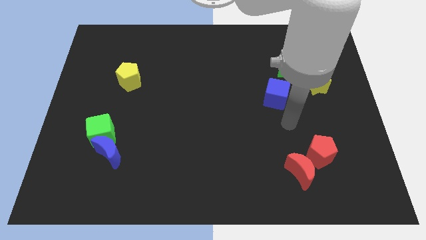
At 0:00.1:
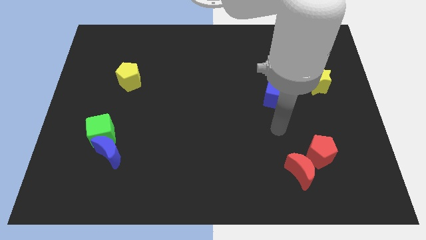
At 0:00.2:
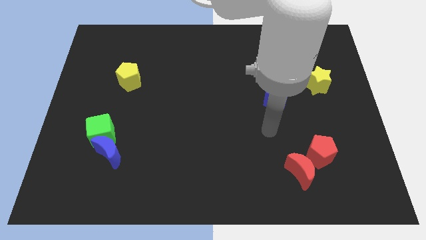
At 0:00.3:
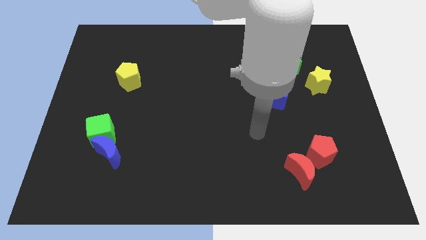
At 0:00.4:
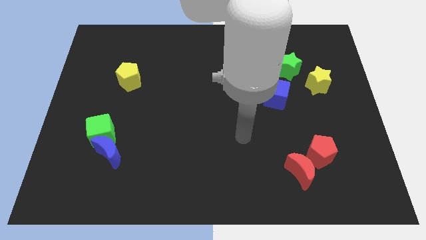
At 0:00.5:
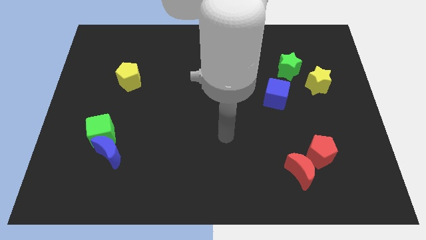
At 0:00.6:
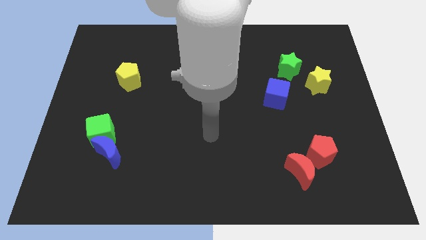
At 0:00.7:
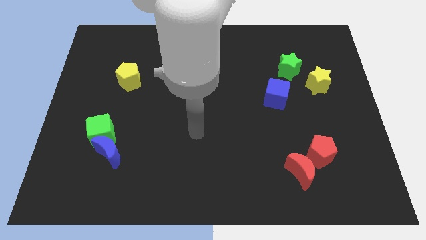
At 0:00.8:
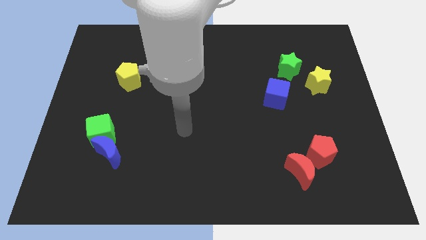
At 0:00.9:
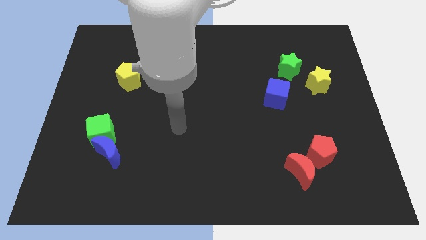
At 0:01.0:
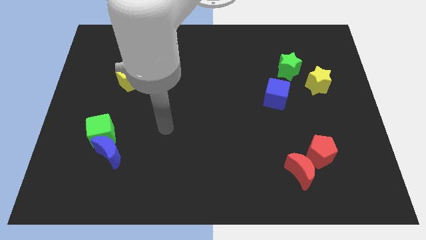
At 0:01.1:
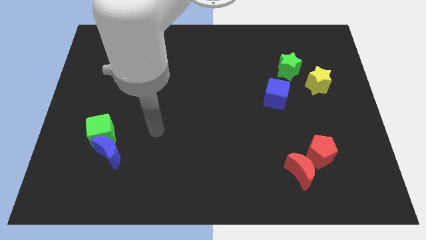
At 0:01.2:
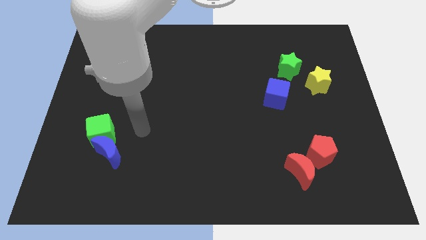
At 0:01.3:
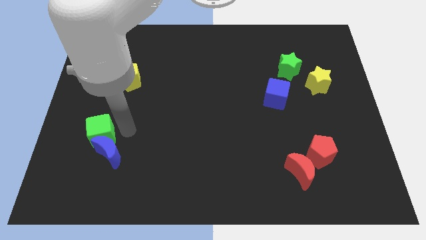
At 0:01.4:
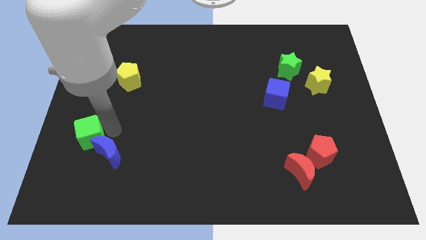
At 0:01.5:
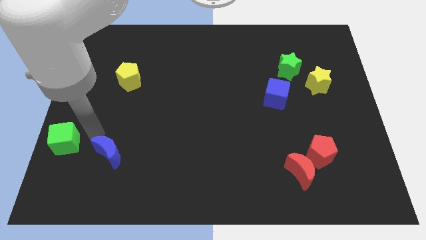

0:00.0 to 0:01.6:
pull the blue moon apart from the green cube

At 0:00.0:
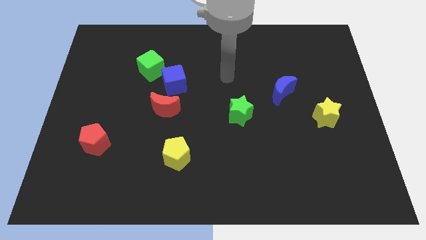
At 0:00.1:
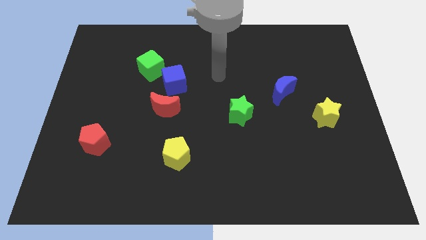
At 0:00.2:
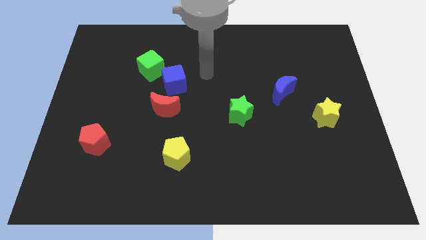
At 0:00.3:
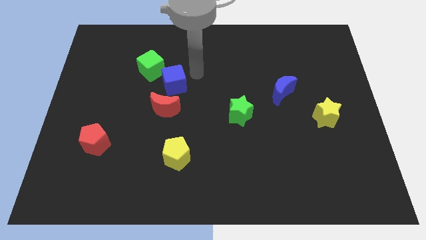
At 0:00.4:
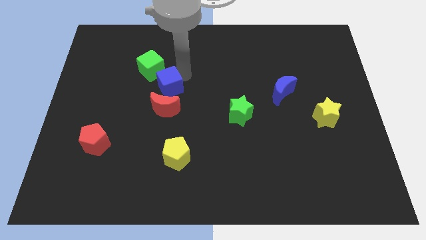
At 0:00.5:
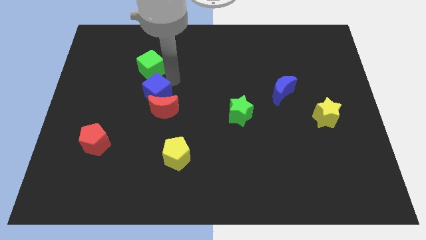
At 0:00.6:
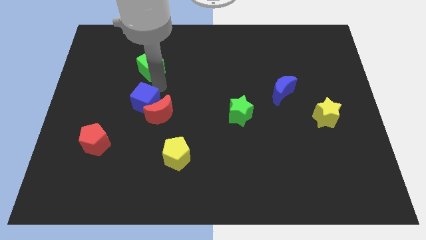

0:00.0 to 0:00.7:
pull the green cube apart from the blue cube

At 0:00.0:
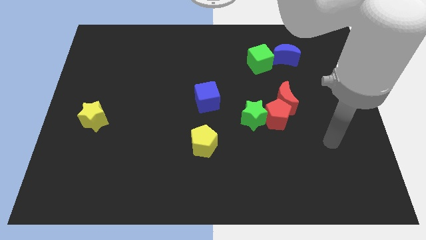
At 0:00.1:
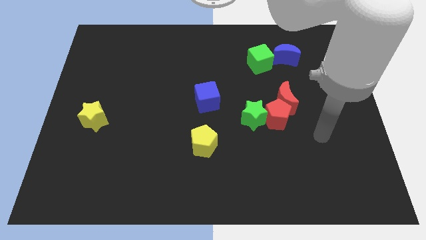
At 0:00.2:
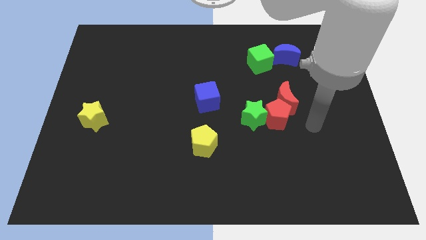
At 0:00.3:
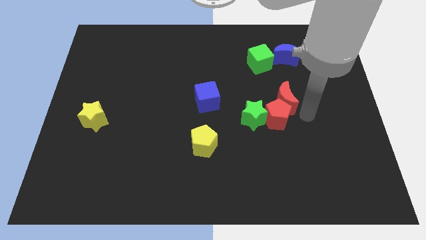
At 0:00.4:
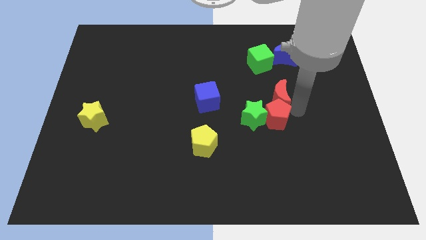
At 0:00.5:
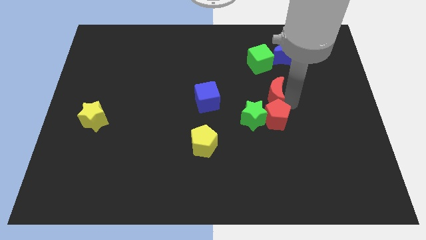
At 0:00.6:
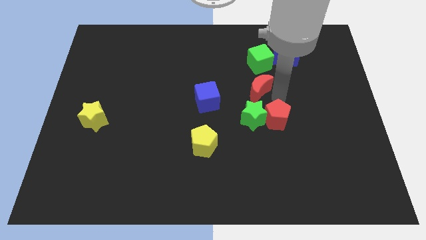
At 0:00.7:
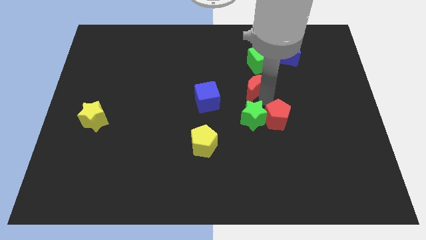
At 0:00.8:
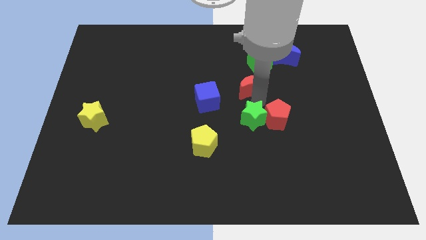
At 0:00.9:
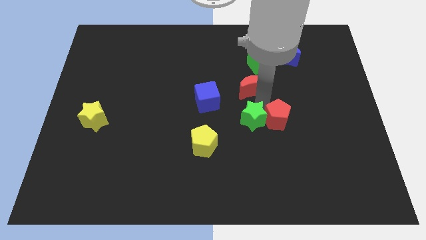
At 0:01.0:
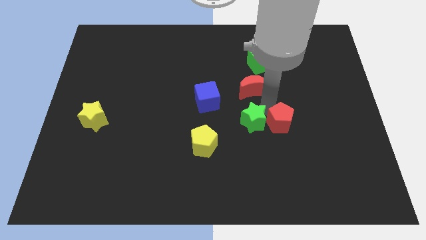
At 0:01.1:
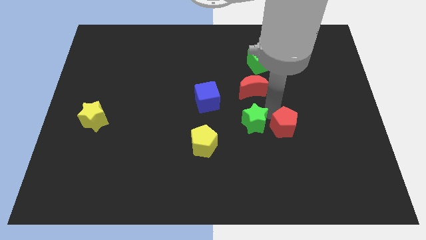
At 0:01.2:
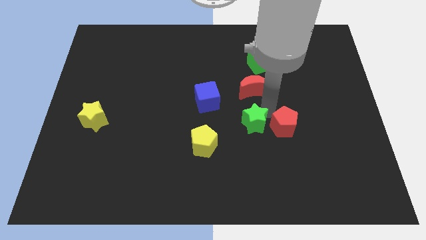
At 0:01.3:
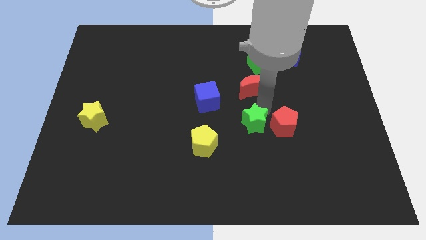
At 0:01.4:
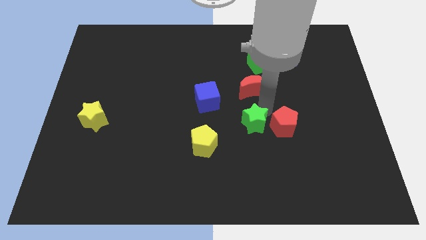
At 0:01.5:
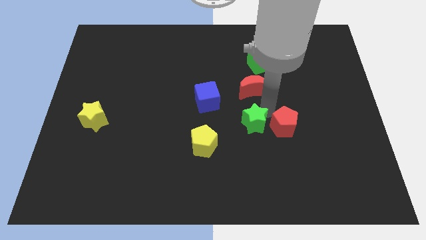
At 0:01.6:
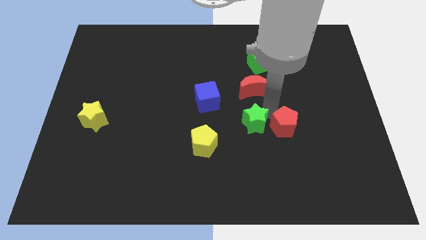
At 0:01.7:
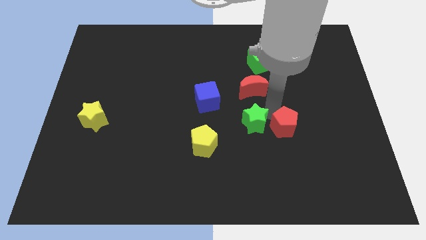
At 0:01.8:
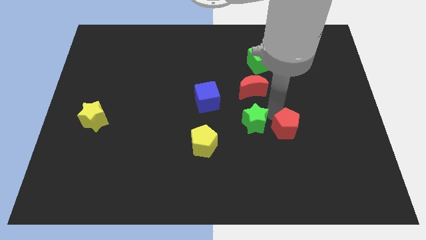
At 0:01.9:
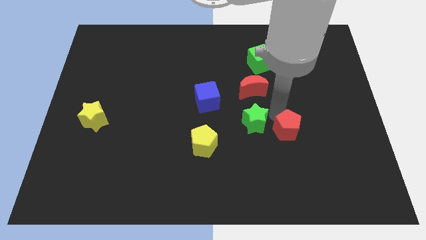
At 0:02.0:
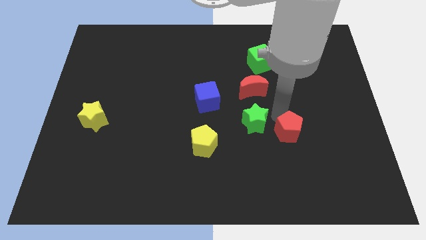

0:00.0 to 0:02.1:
separate the red pentagon from the red moon and green star

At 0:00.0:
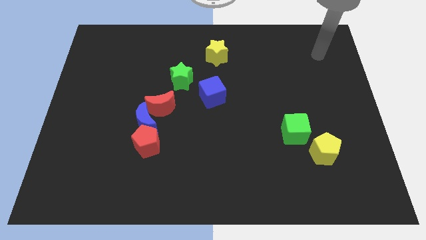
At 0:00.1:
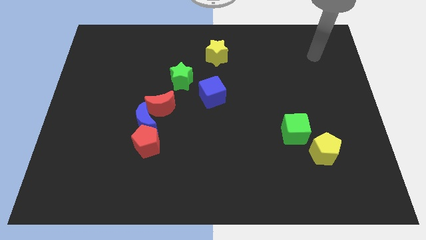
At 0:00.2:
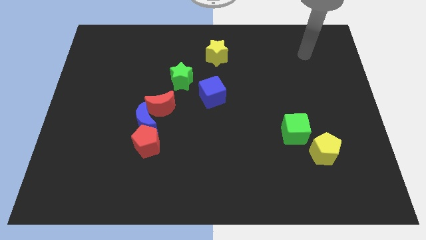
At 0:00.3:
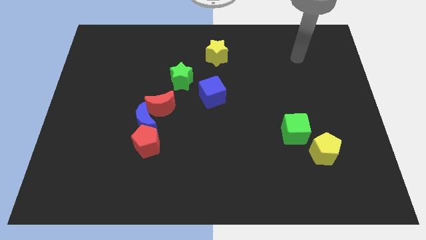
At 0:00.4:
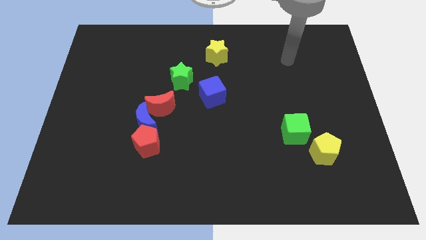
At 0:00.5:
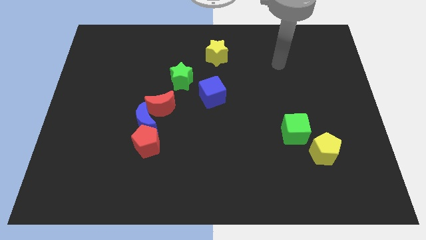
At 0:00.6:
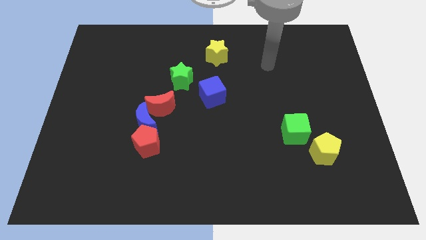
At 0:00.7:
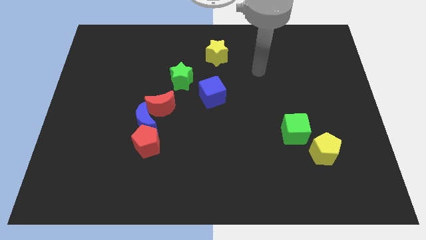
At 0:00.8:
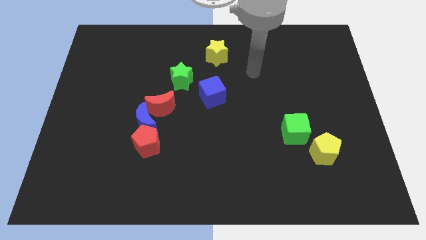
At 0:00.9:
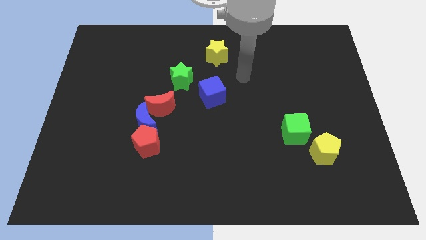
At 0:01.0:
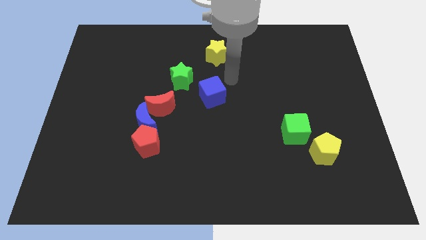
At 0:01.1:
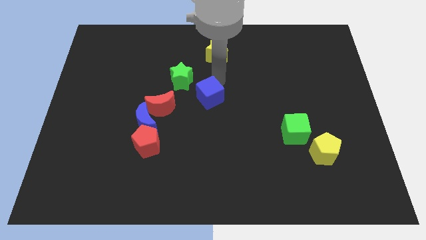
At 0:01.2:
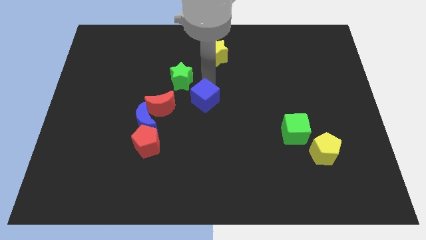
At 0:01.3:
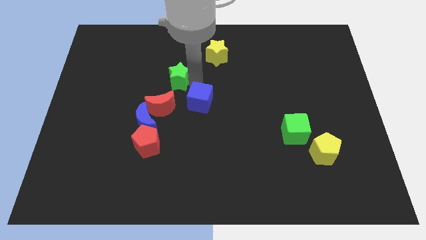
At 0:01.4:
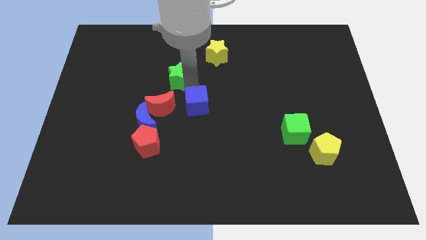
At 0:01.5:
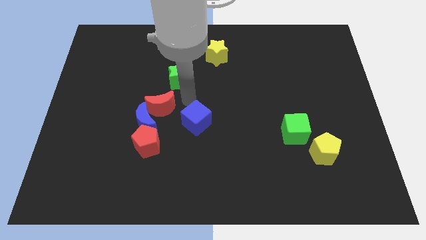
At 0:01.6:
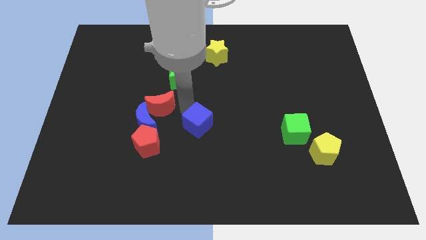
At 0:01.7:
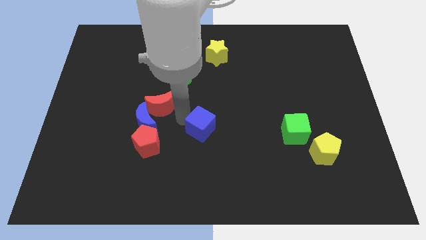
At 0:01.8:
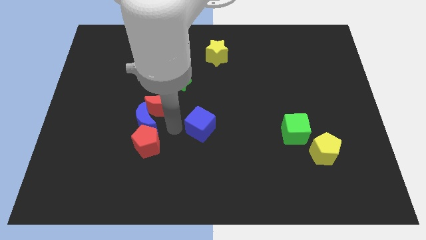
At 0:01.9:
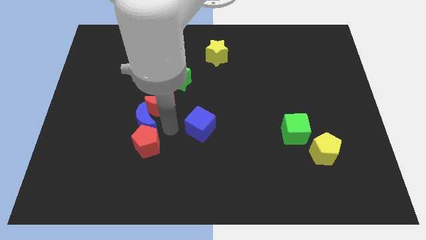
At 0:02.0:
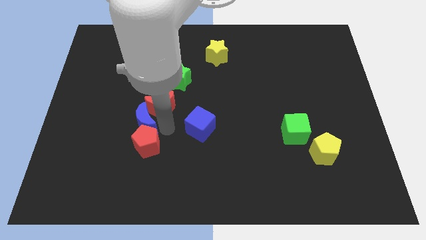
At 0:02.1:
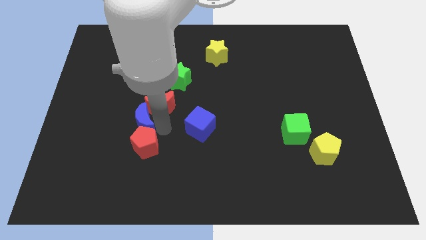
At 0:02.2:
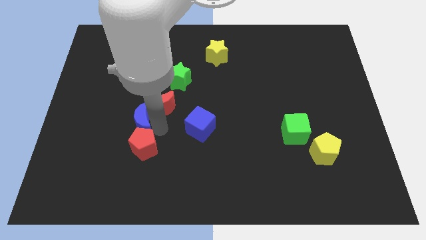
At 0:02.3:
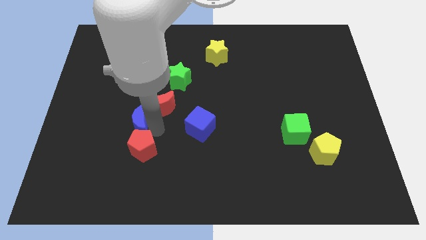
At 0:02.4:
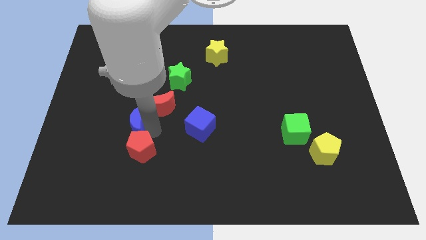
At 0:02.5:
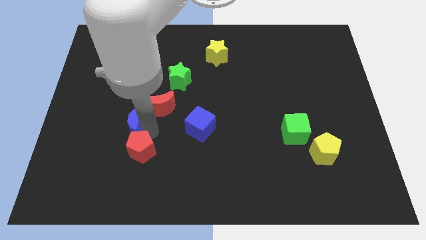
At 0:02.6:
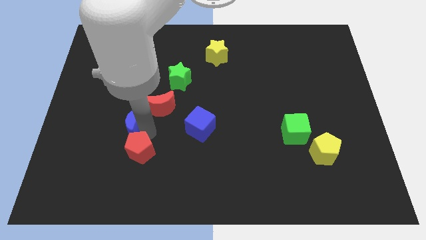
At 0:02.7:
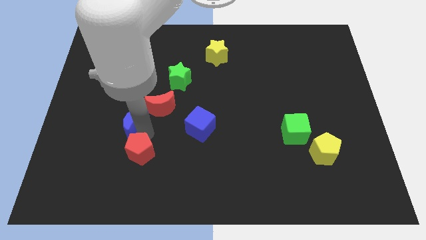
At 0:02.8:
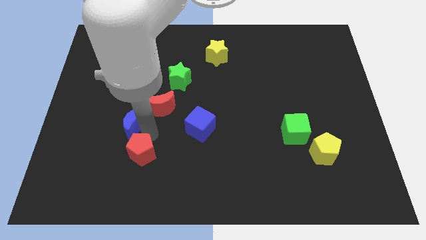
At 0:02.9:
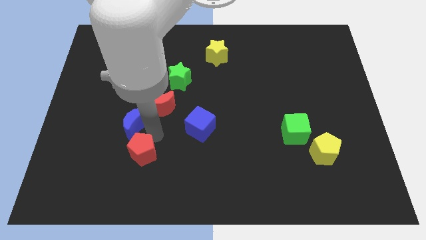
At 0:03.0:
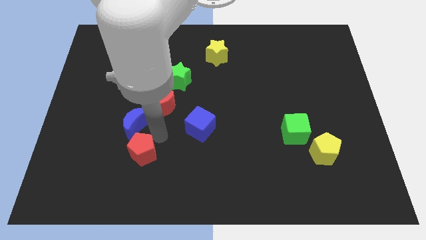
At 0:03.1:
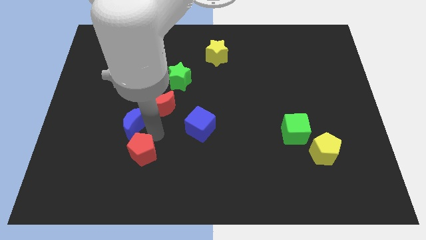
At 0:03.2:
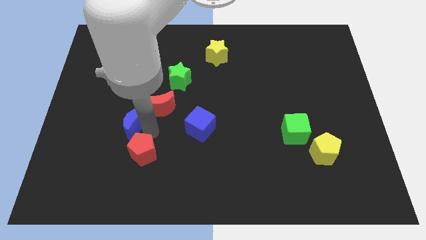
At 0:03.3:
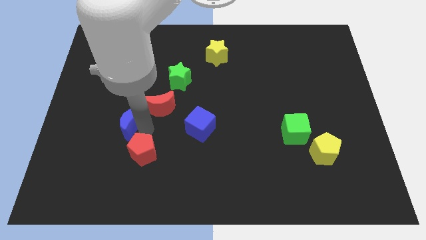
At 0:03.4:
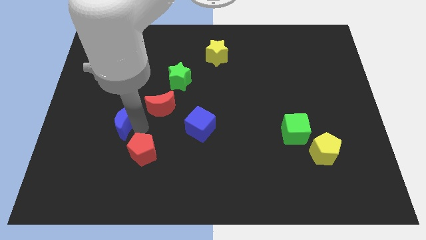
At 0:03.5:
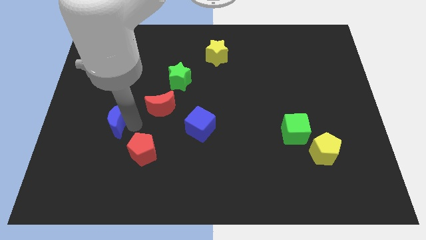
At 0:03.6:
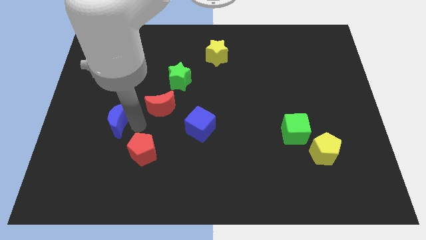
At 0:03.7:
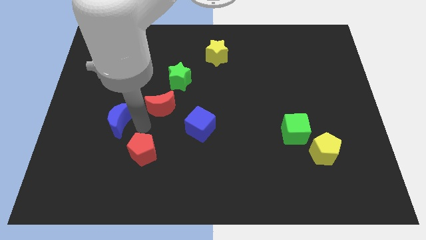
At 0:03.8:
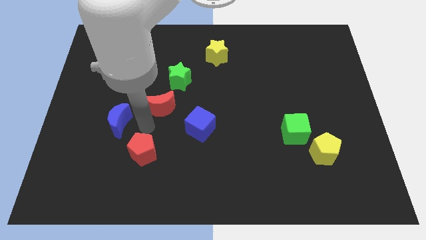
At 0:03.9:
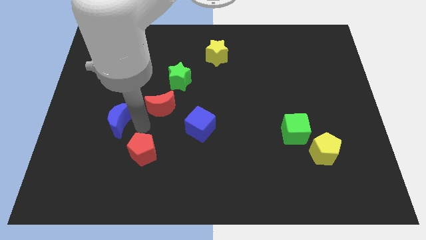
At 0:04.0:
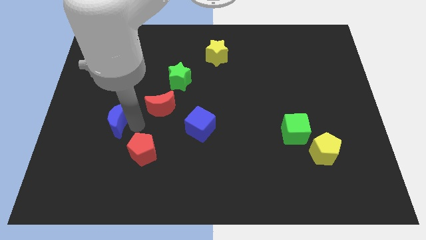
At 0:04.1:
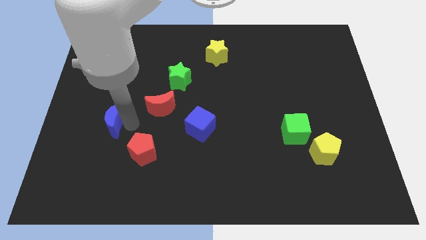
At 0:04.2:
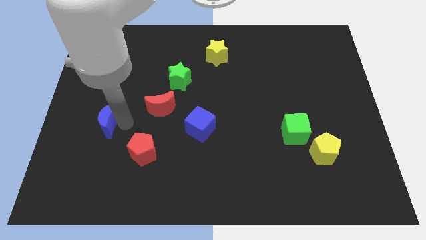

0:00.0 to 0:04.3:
separate the blue moon from the red moon and red pentagon

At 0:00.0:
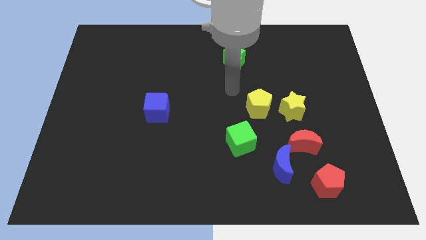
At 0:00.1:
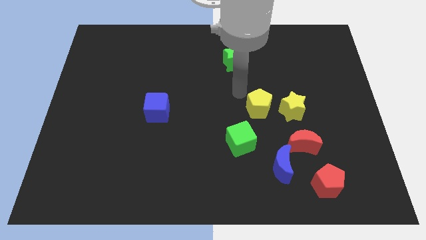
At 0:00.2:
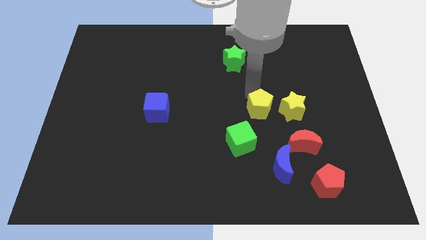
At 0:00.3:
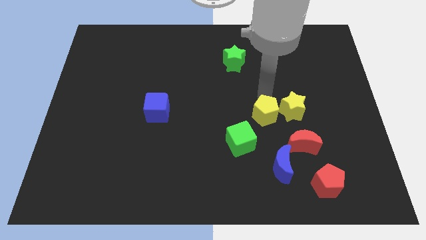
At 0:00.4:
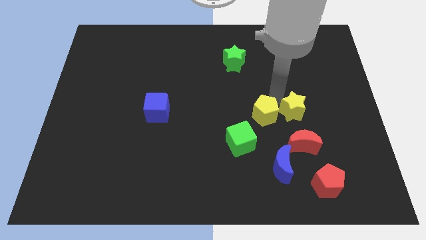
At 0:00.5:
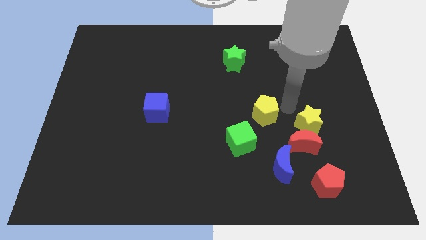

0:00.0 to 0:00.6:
separate the yellow pentagon from the yellow star

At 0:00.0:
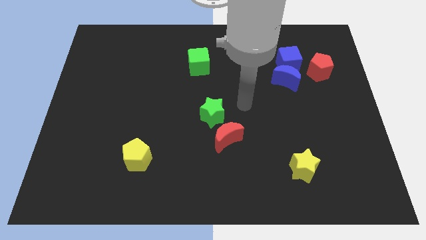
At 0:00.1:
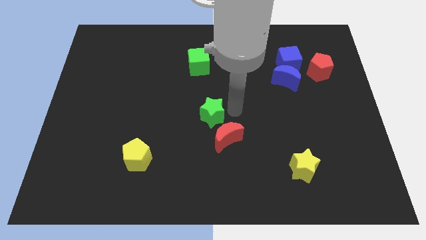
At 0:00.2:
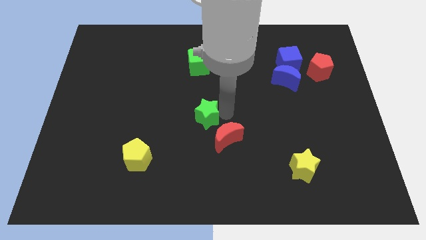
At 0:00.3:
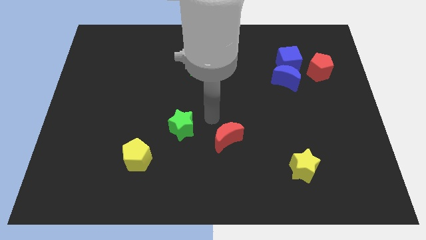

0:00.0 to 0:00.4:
move the red moon away from the green star
